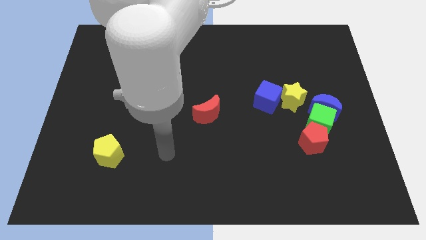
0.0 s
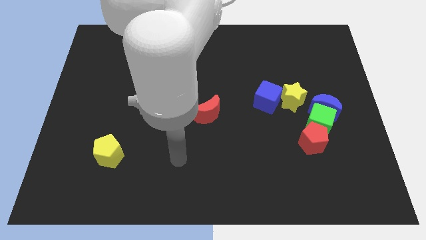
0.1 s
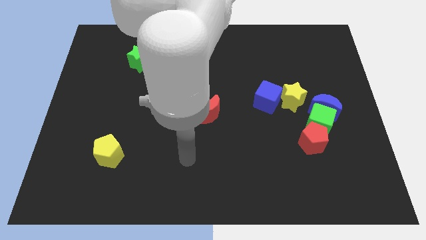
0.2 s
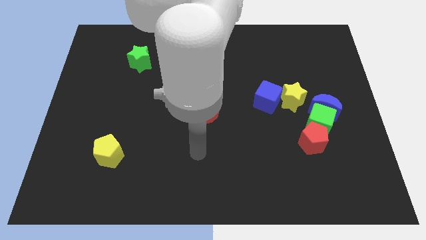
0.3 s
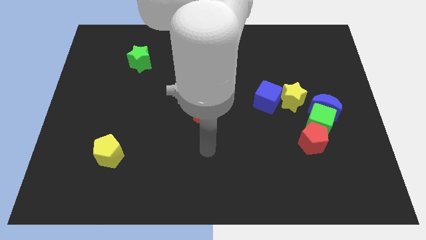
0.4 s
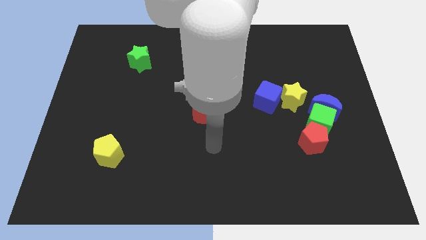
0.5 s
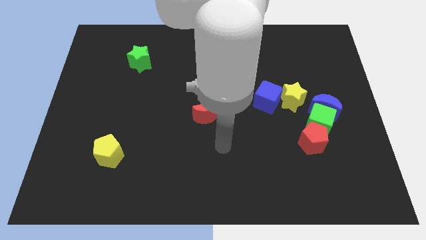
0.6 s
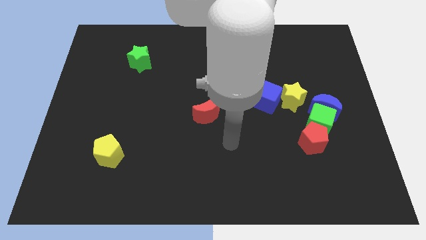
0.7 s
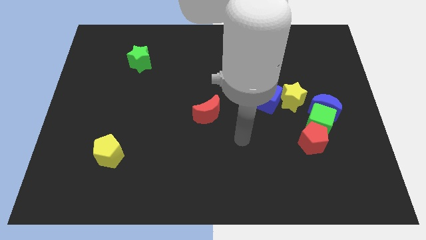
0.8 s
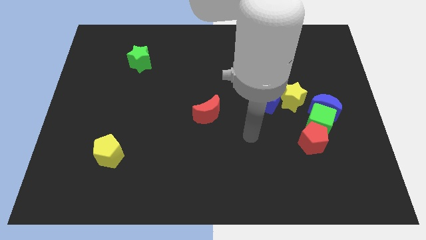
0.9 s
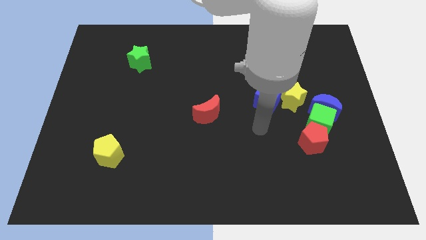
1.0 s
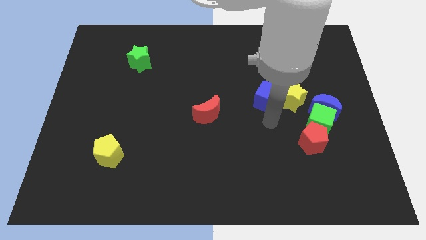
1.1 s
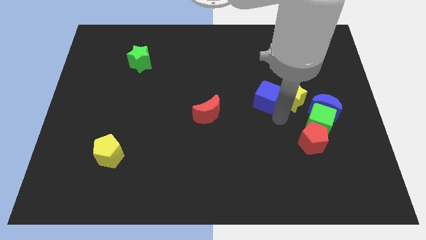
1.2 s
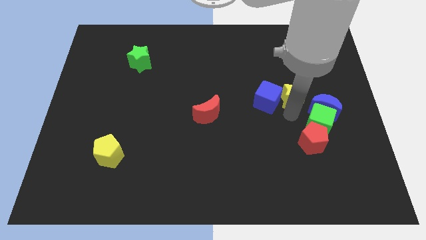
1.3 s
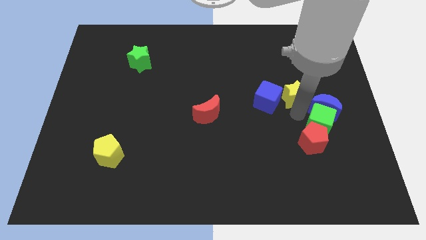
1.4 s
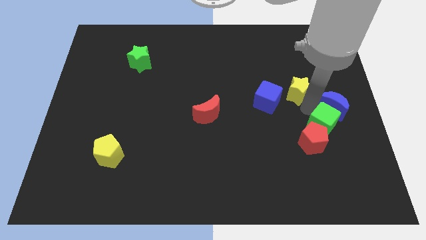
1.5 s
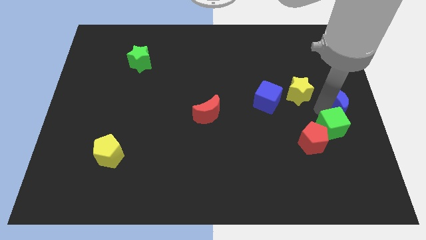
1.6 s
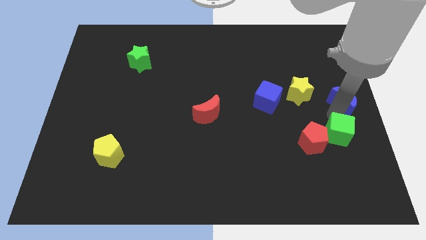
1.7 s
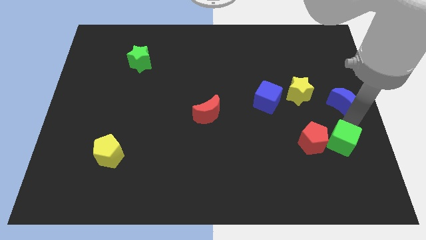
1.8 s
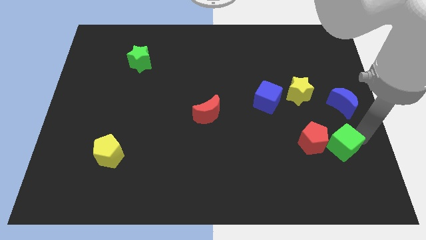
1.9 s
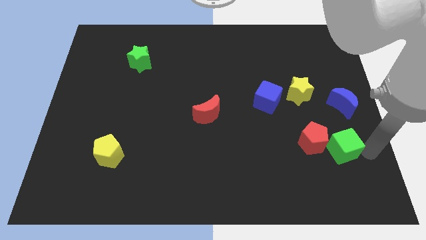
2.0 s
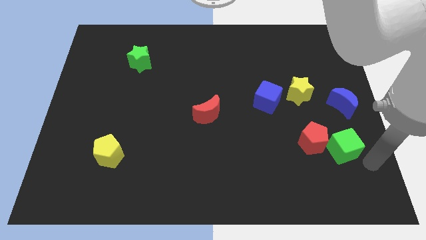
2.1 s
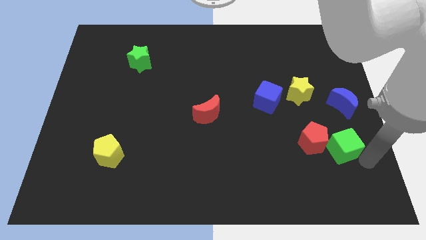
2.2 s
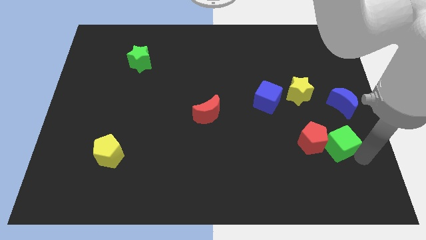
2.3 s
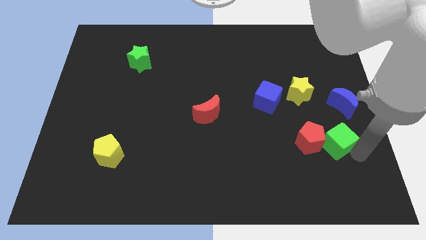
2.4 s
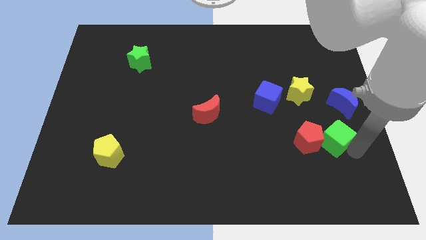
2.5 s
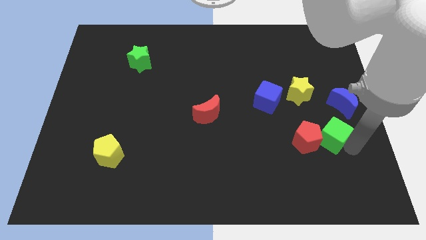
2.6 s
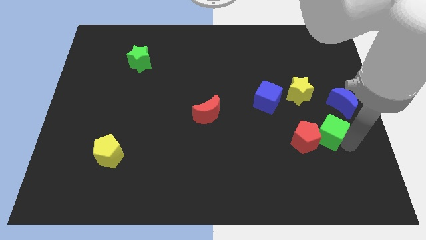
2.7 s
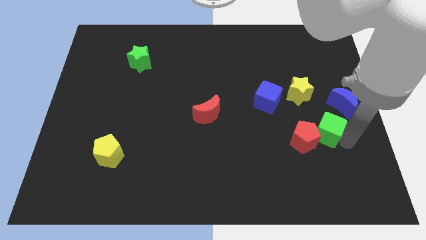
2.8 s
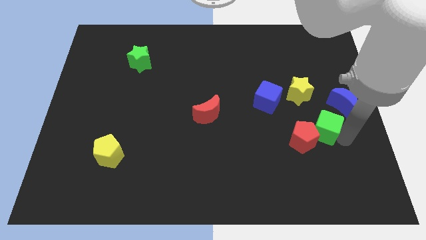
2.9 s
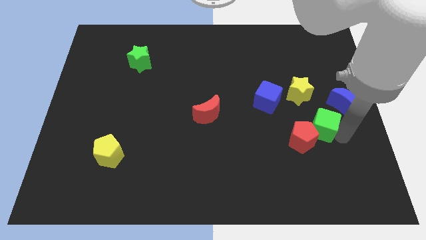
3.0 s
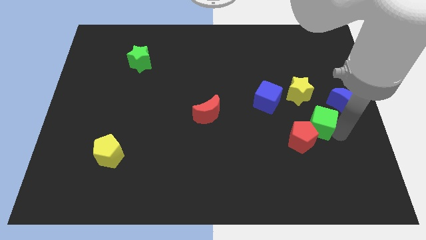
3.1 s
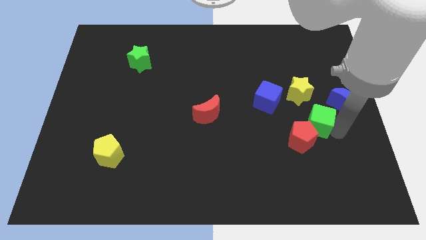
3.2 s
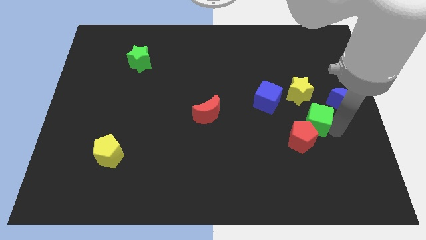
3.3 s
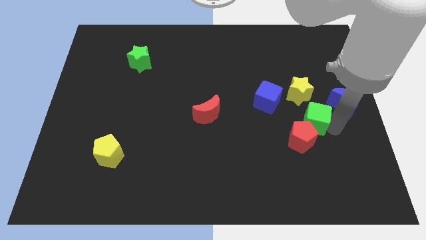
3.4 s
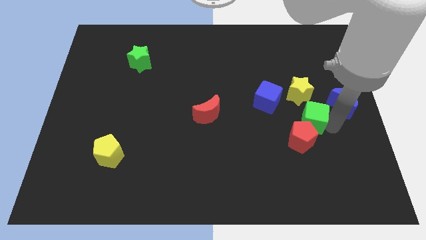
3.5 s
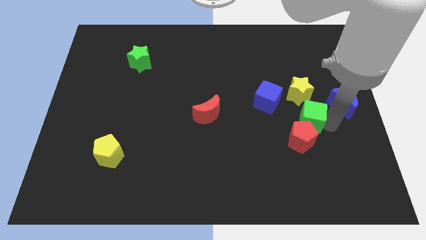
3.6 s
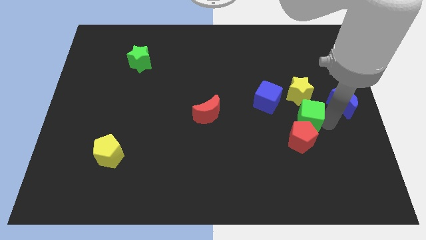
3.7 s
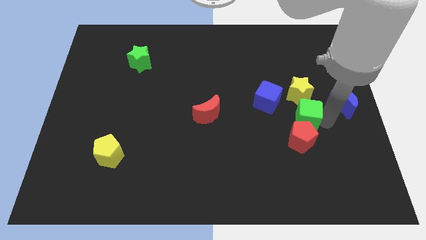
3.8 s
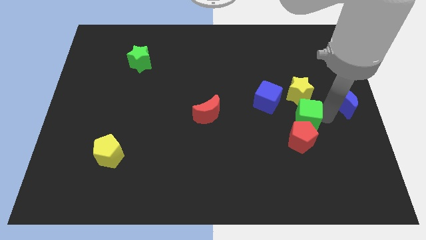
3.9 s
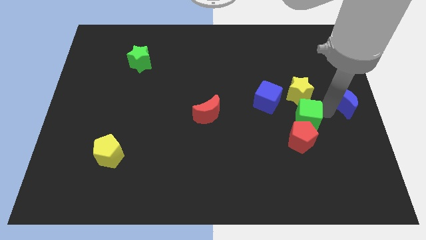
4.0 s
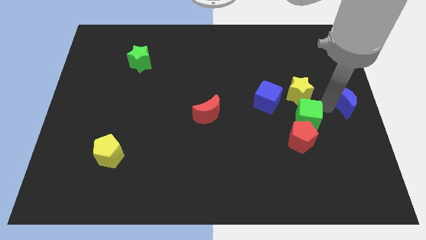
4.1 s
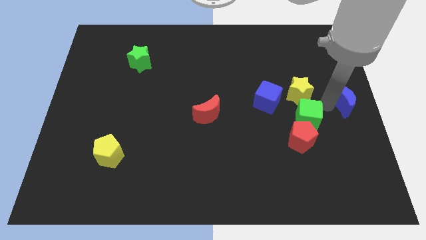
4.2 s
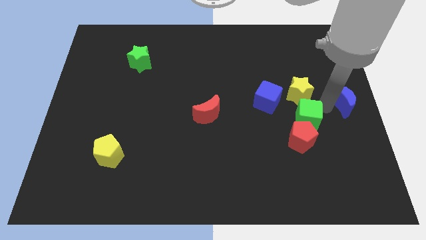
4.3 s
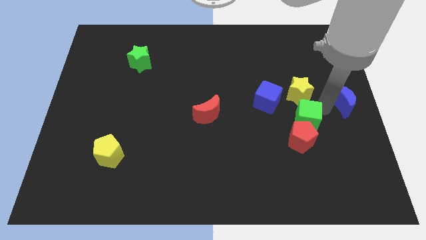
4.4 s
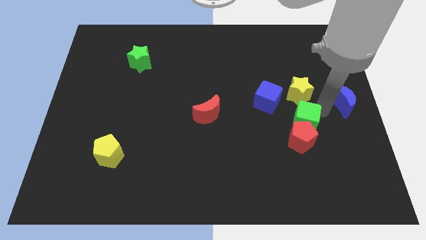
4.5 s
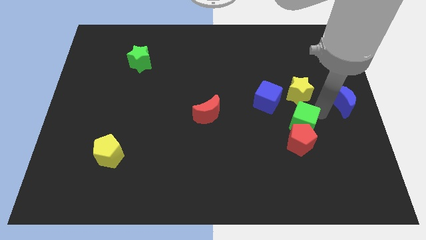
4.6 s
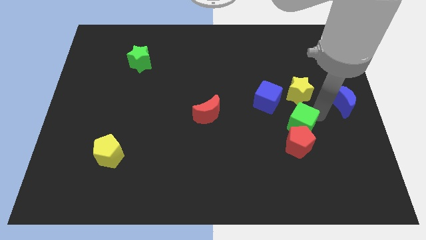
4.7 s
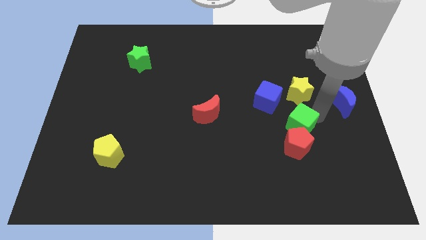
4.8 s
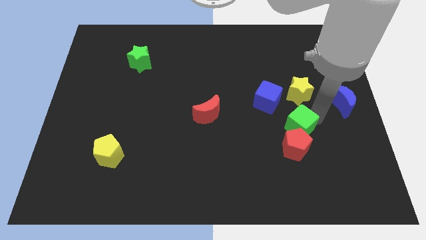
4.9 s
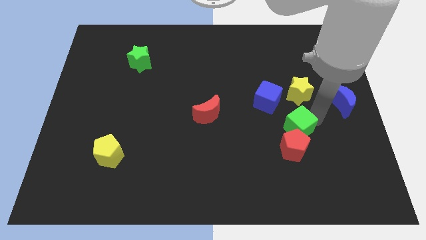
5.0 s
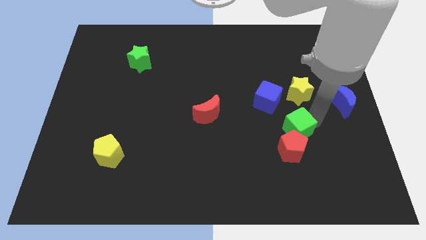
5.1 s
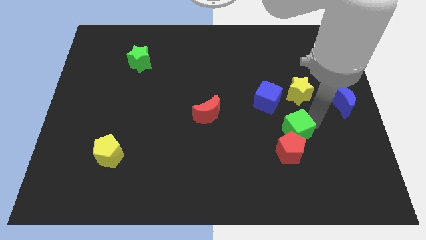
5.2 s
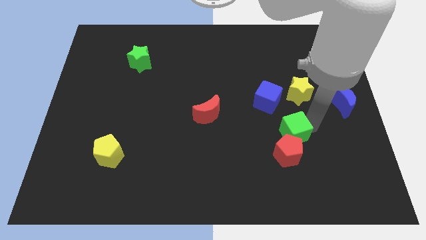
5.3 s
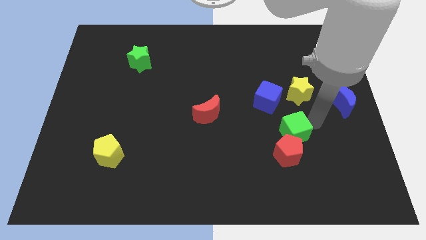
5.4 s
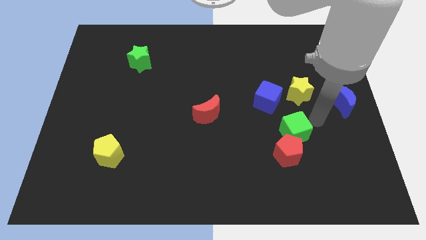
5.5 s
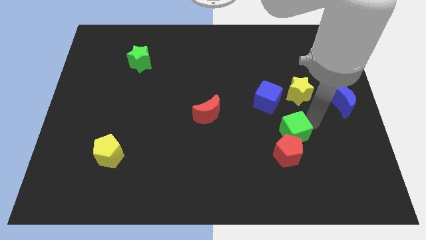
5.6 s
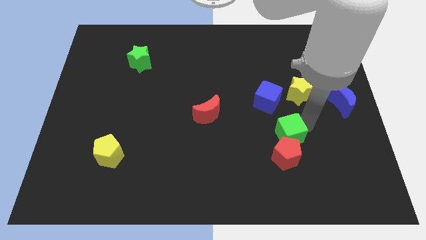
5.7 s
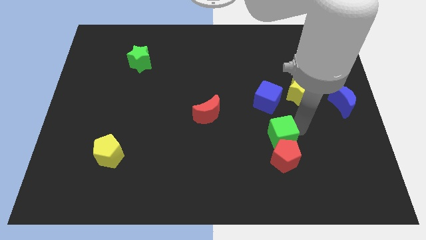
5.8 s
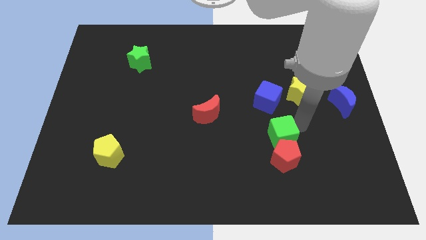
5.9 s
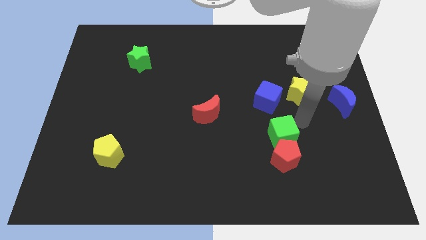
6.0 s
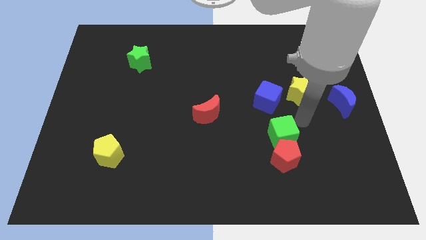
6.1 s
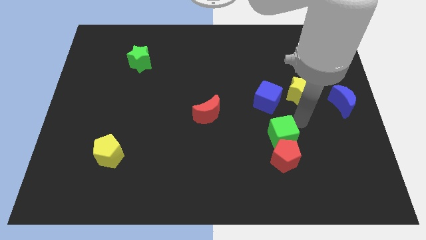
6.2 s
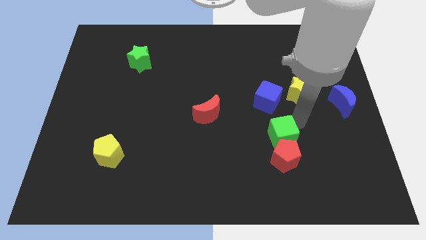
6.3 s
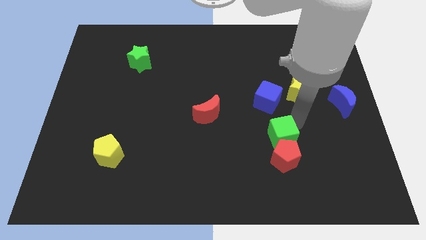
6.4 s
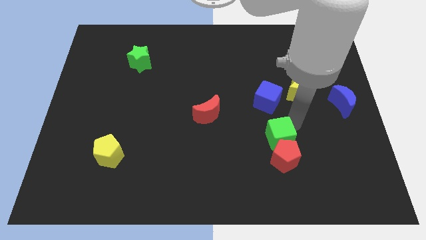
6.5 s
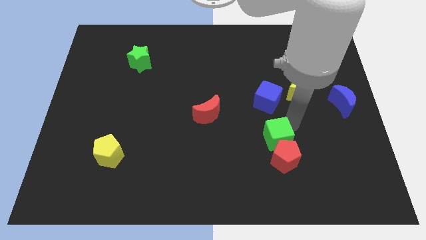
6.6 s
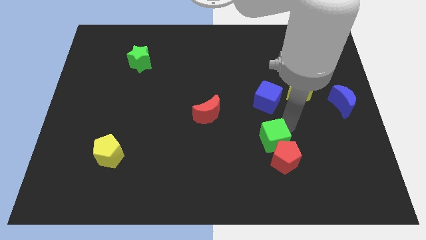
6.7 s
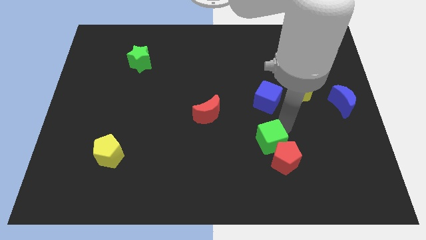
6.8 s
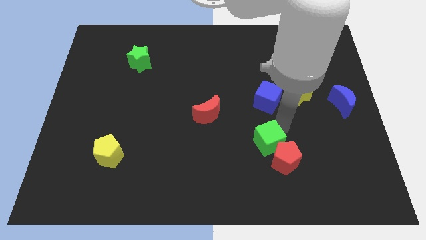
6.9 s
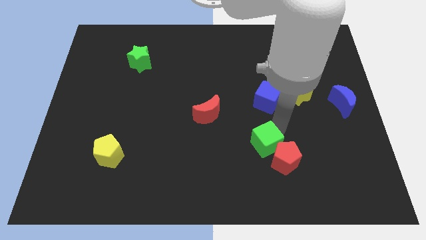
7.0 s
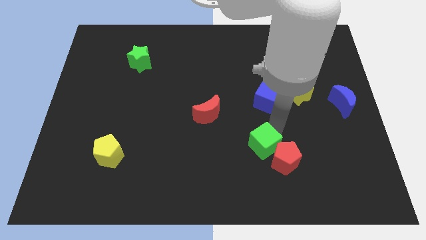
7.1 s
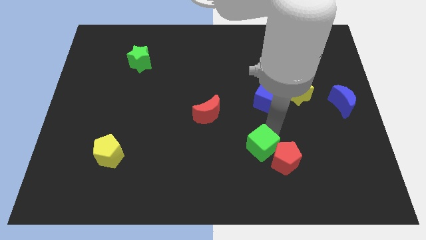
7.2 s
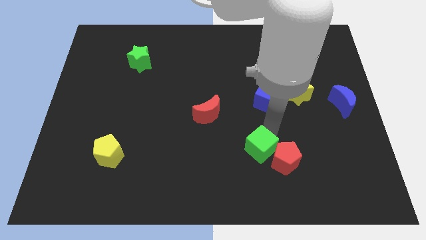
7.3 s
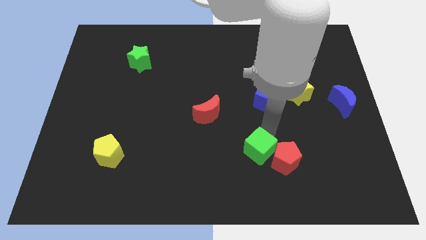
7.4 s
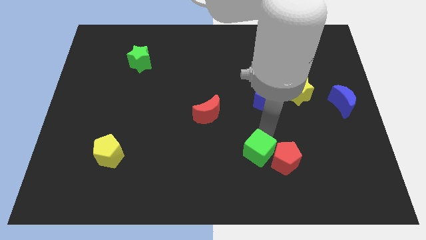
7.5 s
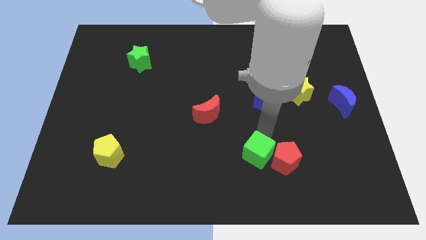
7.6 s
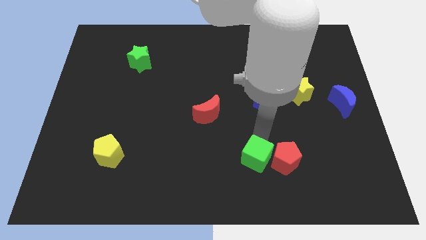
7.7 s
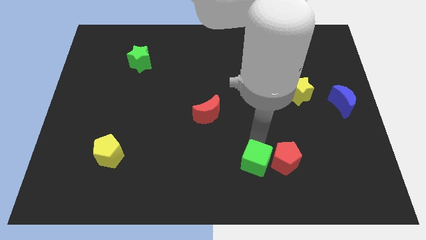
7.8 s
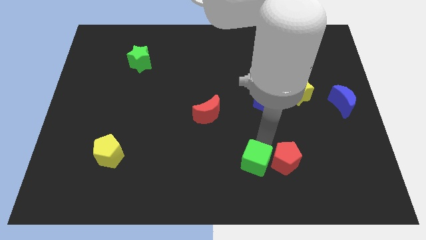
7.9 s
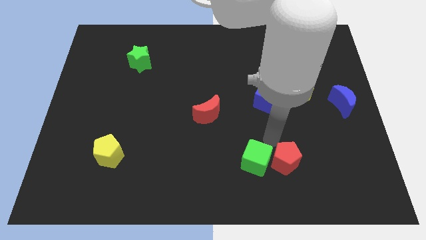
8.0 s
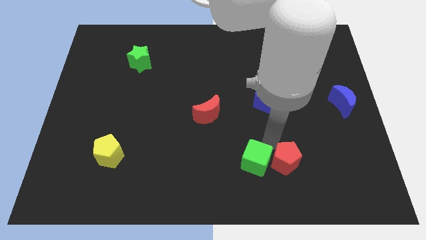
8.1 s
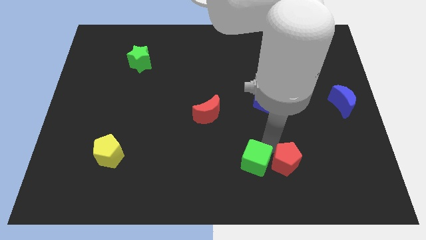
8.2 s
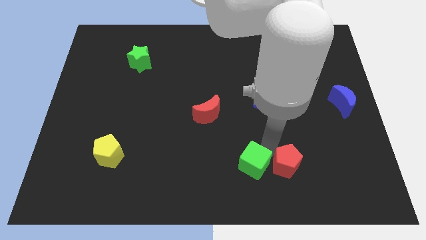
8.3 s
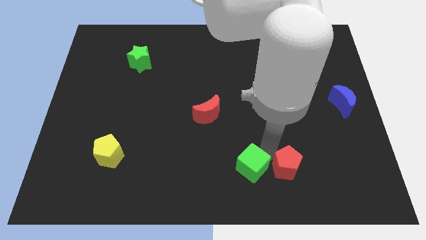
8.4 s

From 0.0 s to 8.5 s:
move the green cube to the bottom

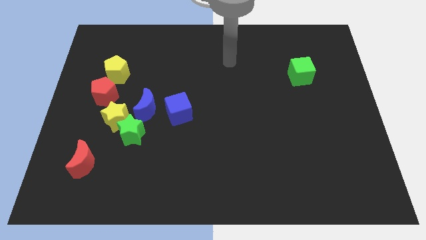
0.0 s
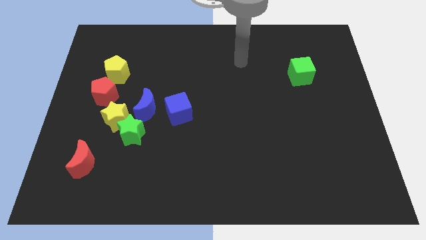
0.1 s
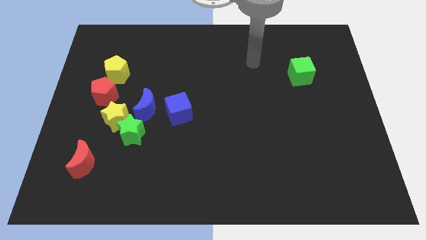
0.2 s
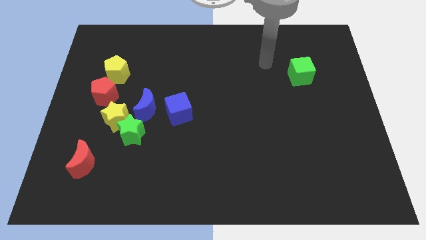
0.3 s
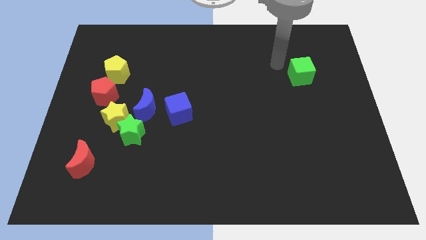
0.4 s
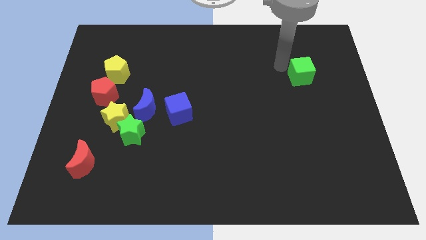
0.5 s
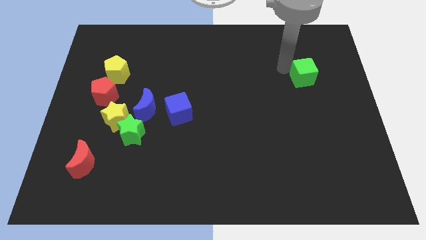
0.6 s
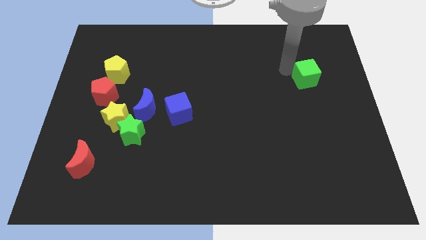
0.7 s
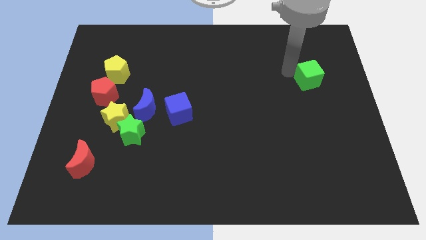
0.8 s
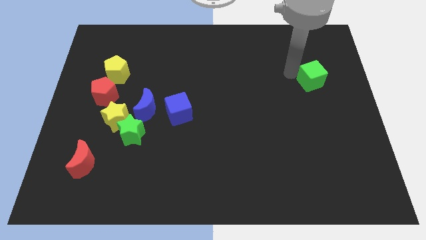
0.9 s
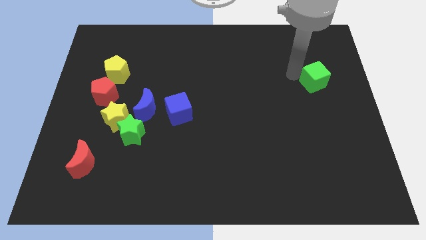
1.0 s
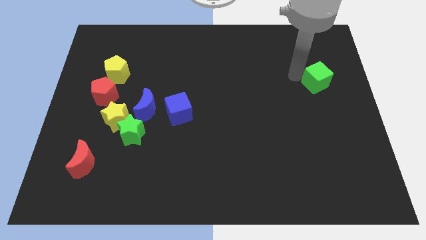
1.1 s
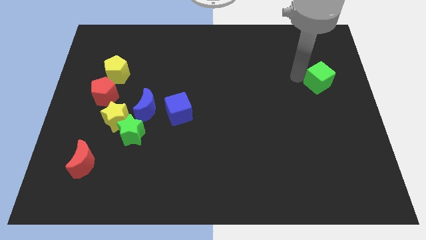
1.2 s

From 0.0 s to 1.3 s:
push the green cube to the right side of the board
